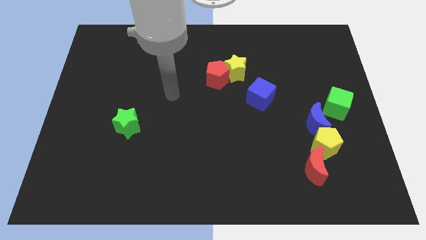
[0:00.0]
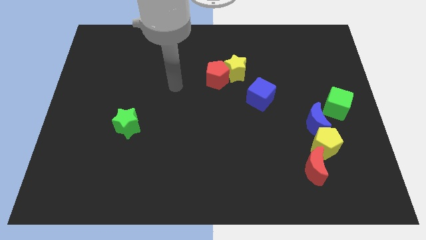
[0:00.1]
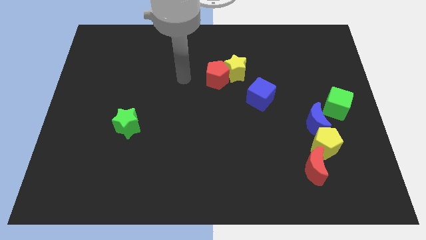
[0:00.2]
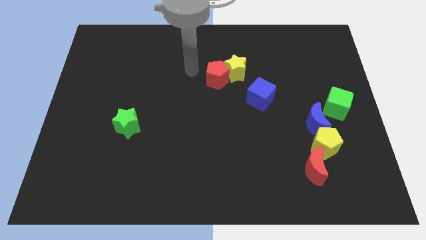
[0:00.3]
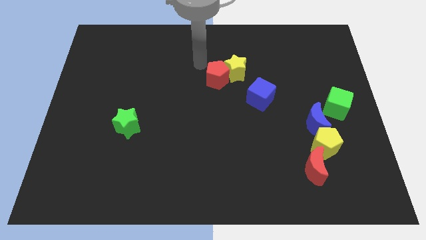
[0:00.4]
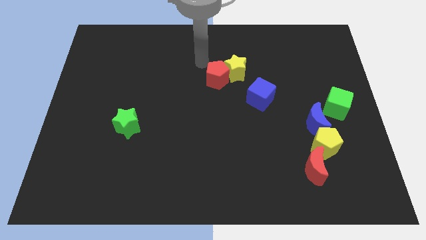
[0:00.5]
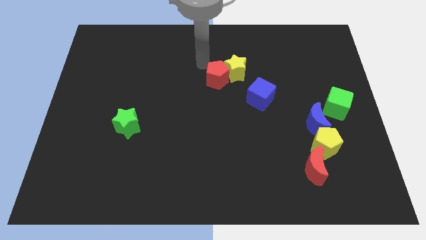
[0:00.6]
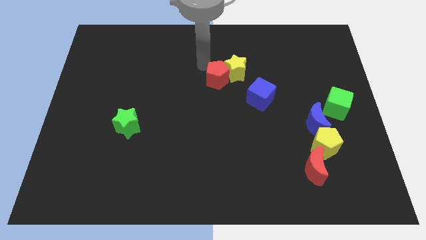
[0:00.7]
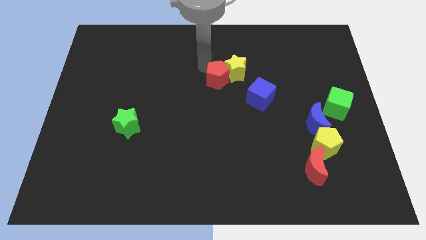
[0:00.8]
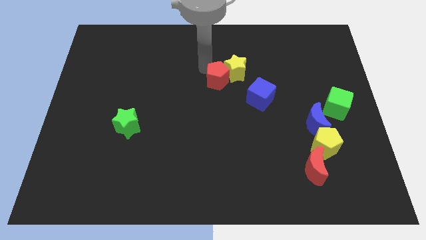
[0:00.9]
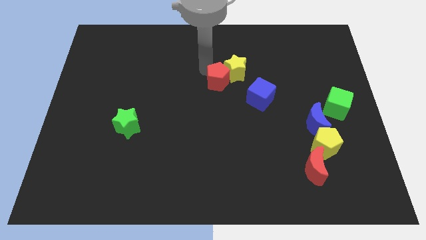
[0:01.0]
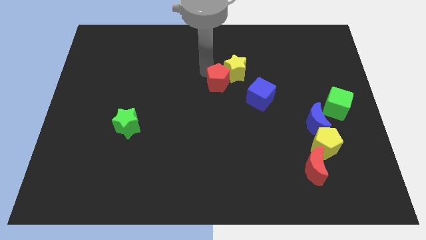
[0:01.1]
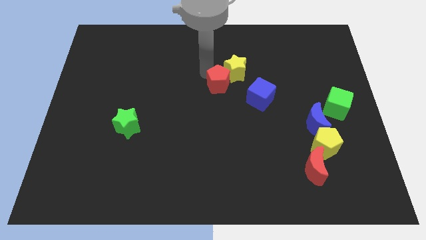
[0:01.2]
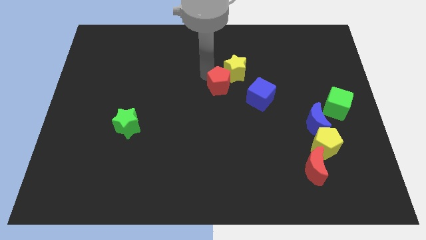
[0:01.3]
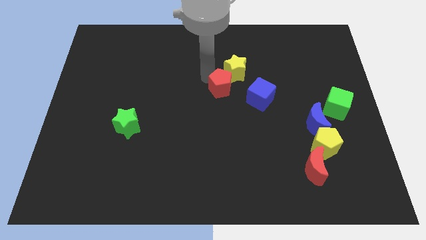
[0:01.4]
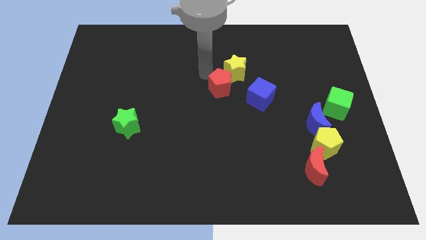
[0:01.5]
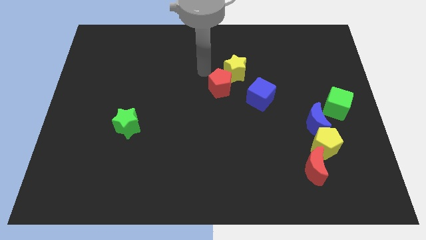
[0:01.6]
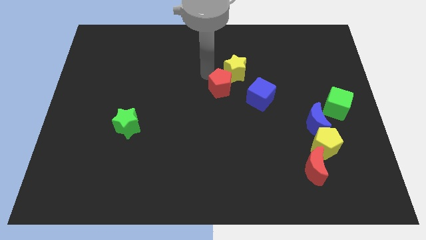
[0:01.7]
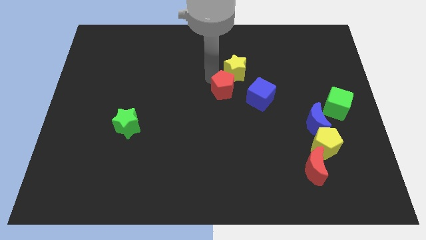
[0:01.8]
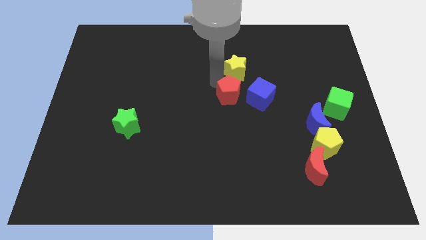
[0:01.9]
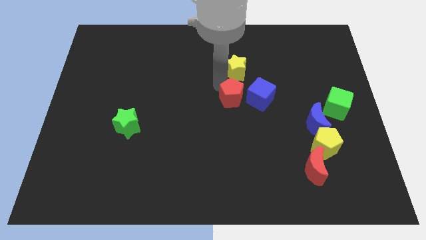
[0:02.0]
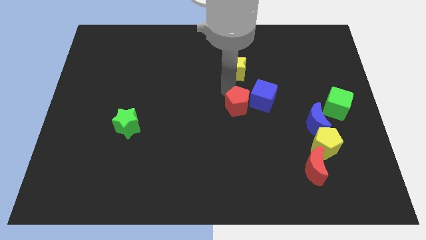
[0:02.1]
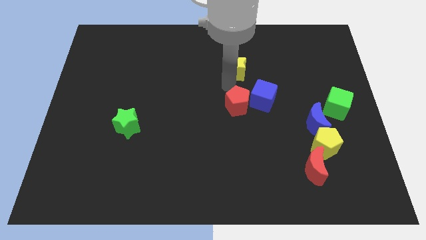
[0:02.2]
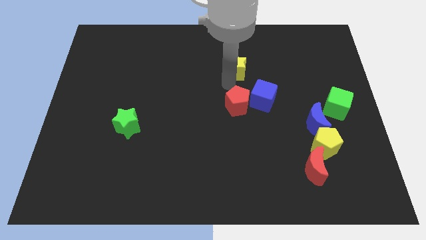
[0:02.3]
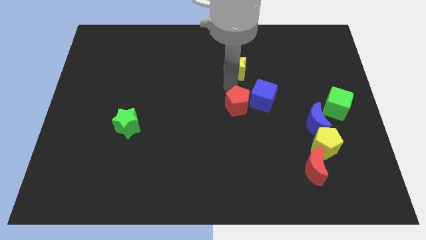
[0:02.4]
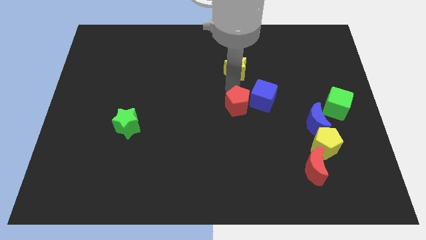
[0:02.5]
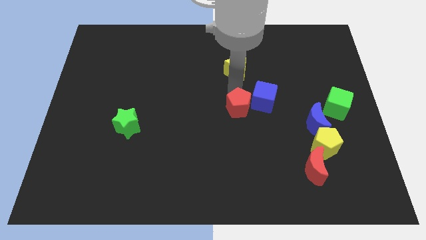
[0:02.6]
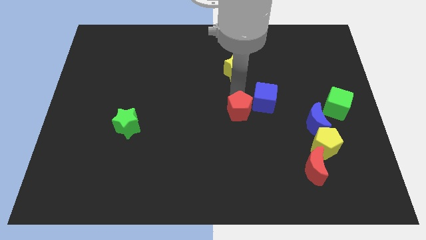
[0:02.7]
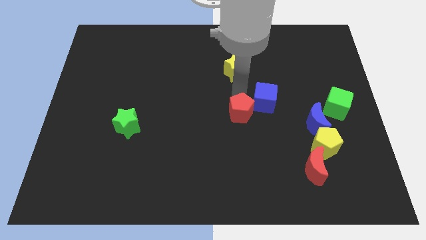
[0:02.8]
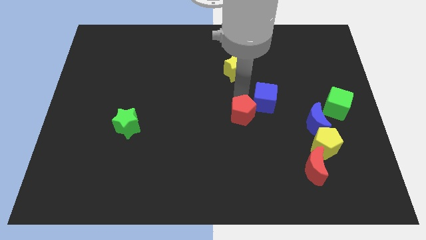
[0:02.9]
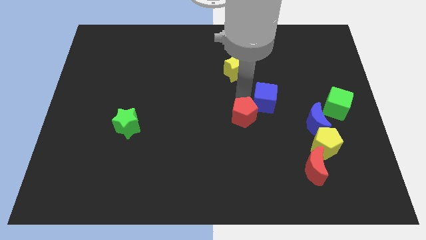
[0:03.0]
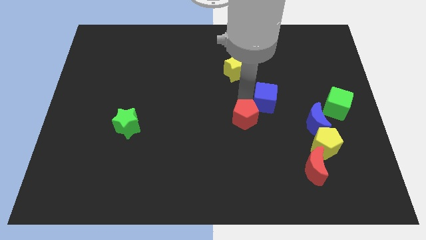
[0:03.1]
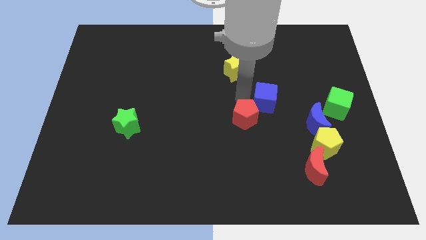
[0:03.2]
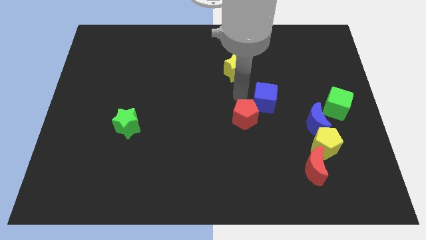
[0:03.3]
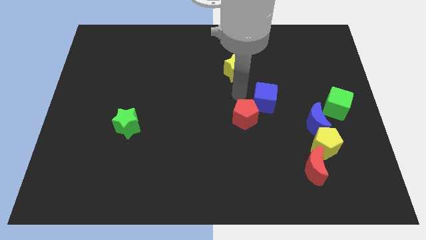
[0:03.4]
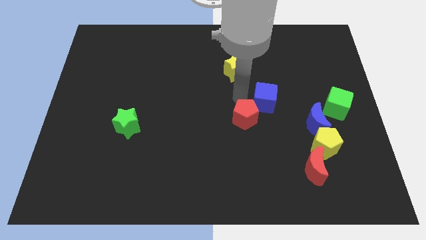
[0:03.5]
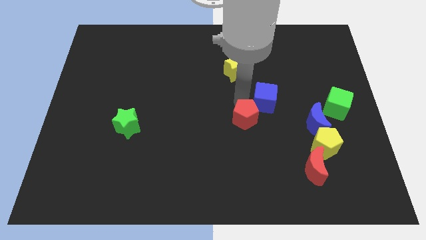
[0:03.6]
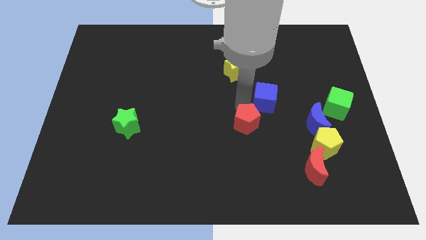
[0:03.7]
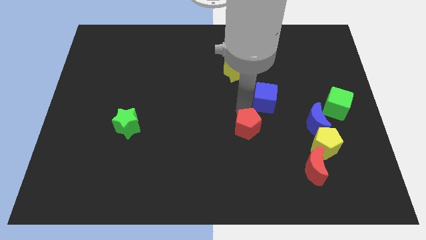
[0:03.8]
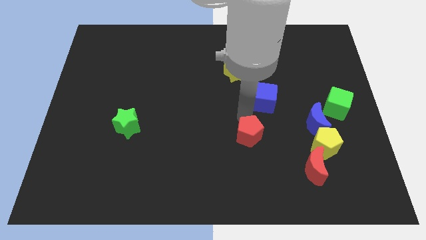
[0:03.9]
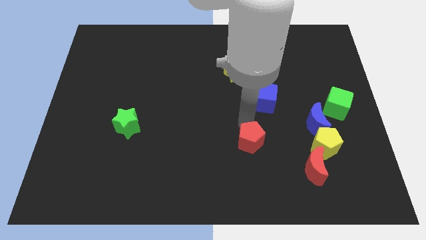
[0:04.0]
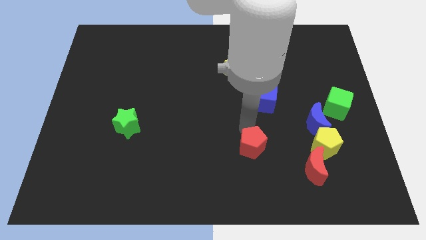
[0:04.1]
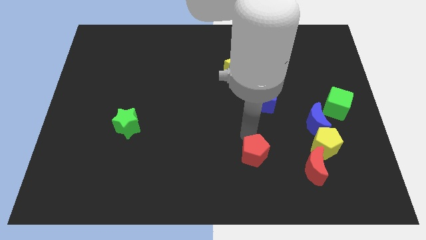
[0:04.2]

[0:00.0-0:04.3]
move the red pentagon to the left of the red moon

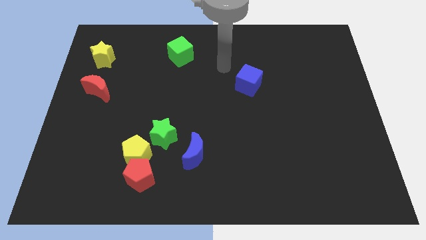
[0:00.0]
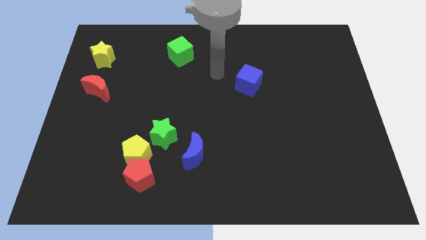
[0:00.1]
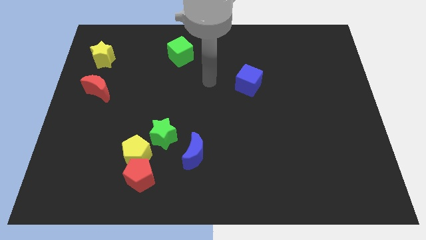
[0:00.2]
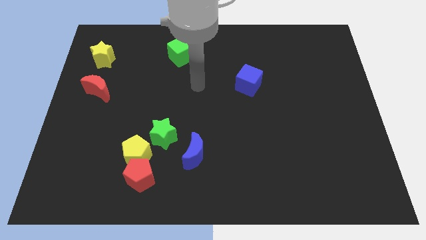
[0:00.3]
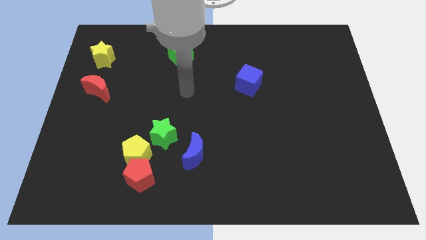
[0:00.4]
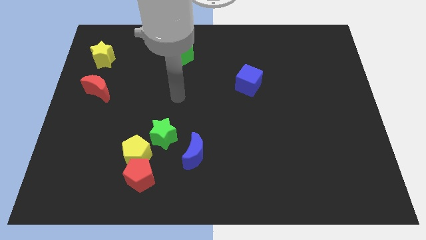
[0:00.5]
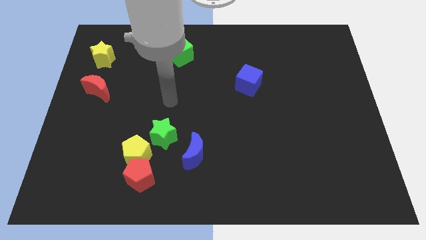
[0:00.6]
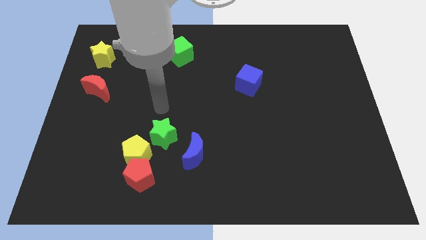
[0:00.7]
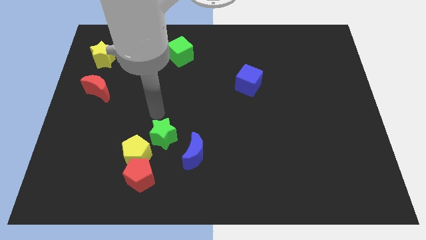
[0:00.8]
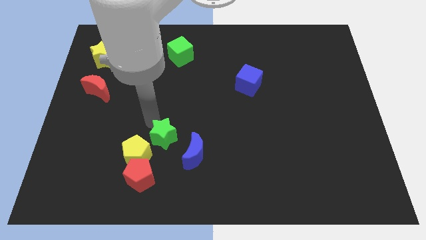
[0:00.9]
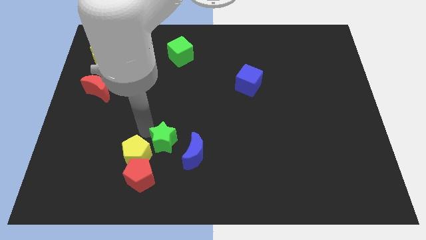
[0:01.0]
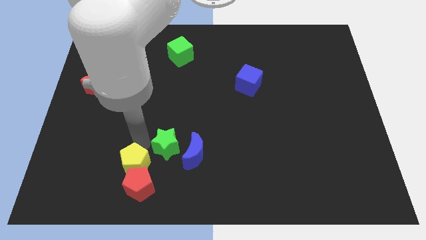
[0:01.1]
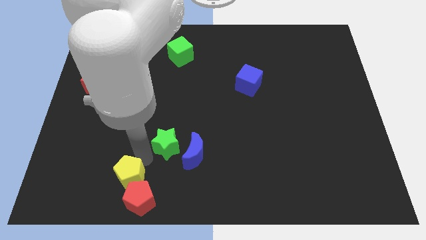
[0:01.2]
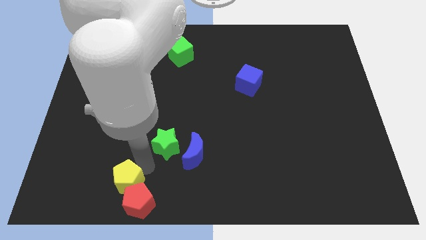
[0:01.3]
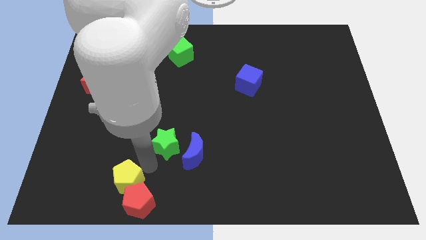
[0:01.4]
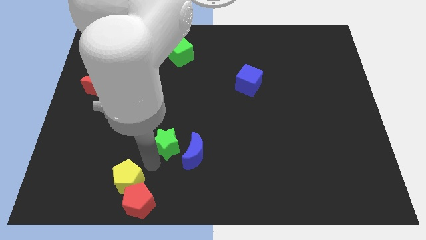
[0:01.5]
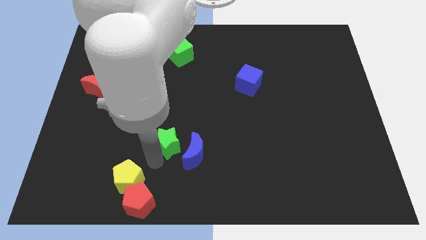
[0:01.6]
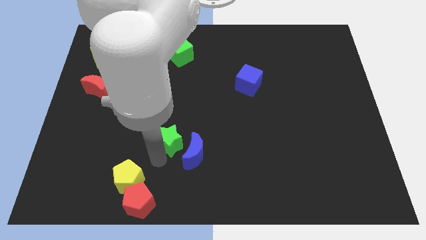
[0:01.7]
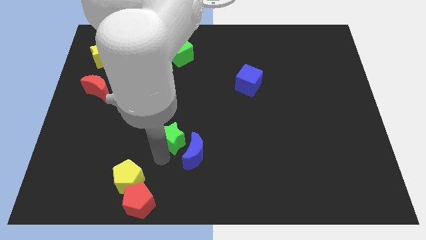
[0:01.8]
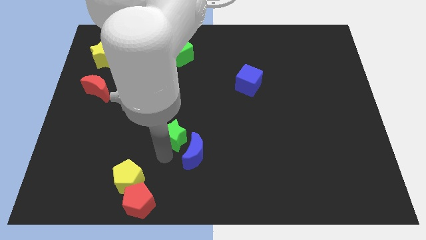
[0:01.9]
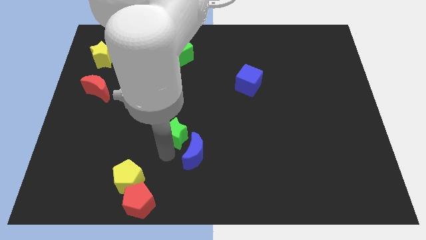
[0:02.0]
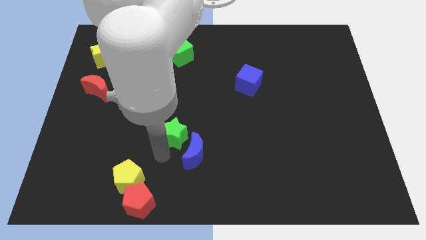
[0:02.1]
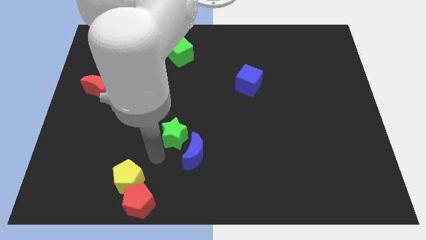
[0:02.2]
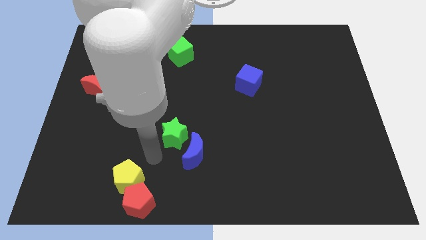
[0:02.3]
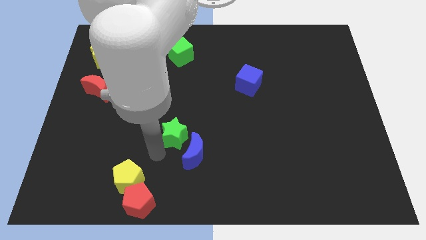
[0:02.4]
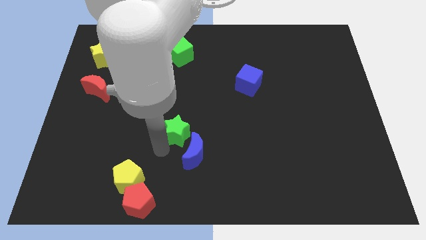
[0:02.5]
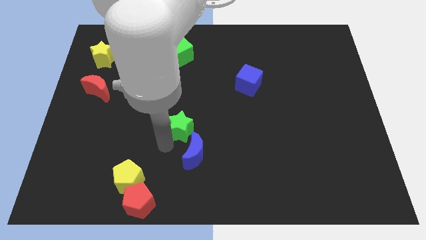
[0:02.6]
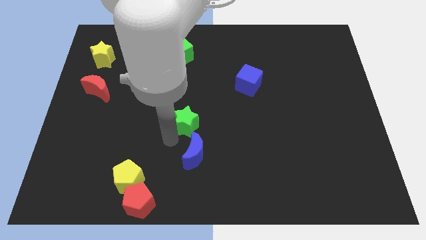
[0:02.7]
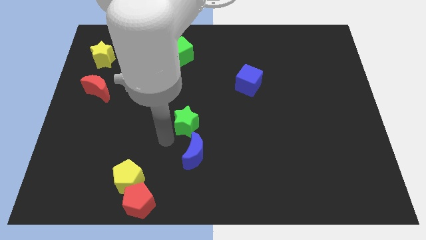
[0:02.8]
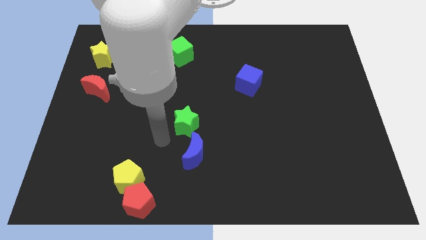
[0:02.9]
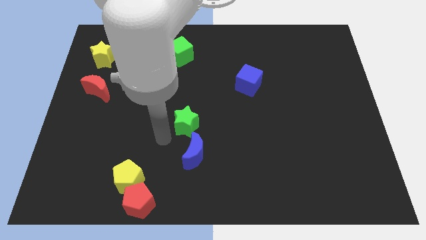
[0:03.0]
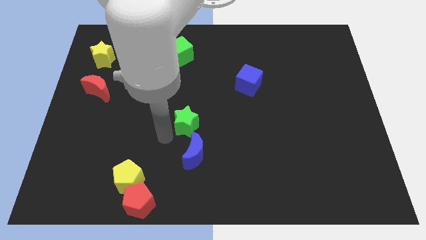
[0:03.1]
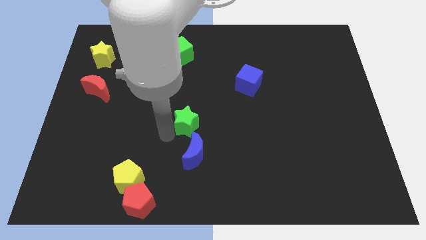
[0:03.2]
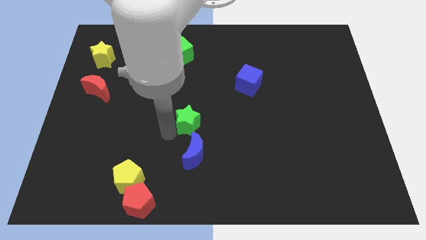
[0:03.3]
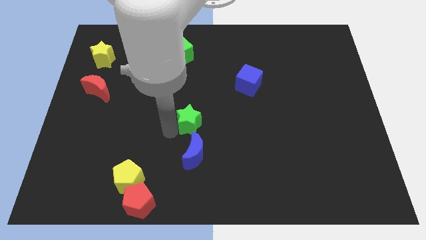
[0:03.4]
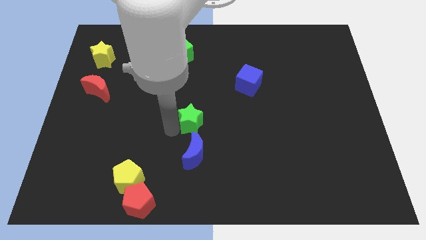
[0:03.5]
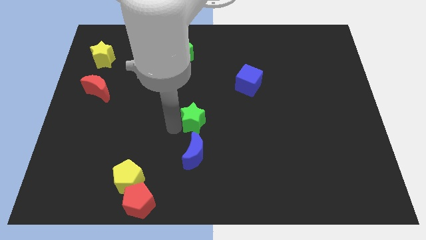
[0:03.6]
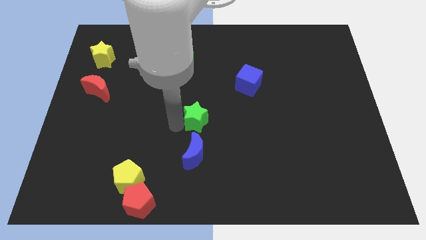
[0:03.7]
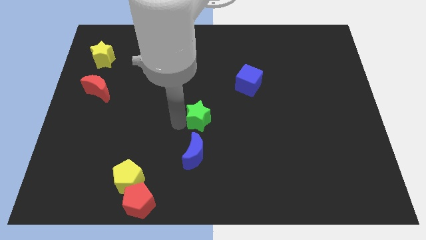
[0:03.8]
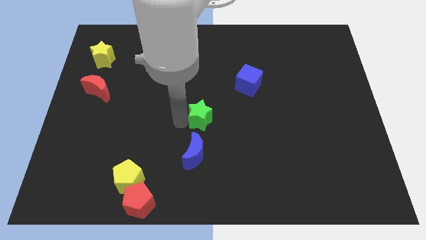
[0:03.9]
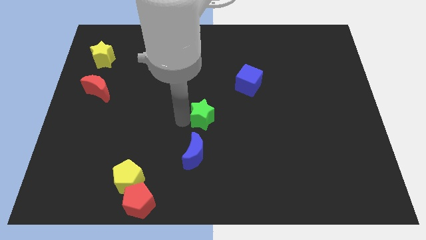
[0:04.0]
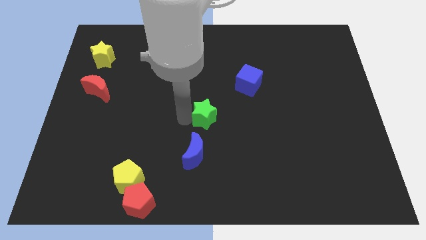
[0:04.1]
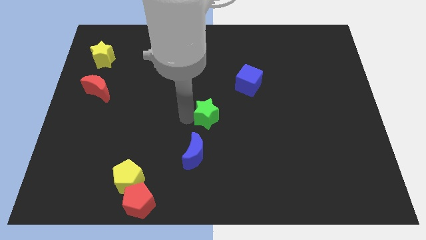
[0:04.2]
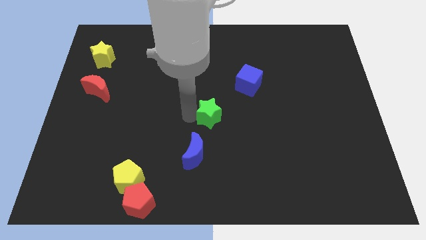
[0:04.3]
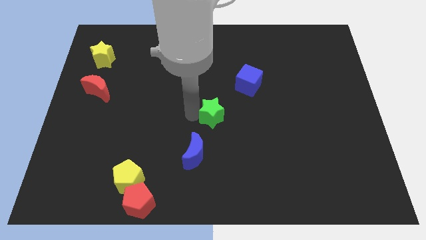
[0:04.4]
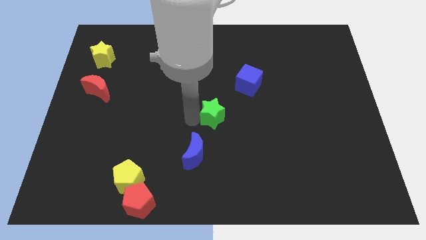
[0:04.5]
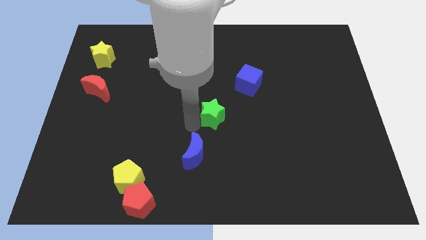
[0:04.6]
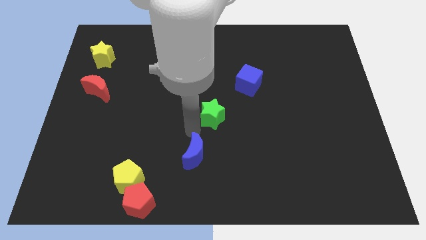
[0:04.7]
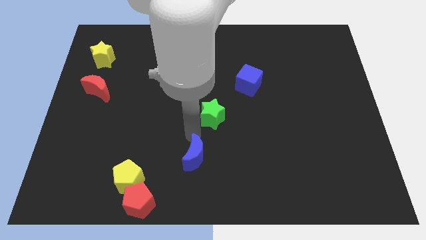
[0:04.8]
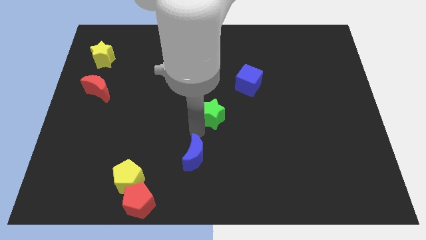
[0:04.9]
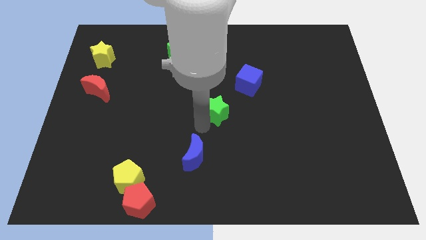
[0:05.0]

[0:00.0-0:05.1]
put the green star to the bottom left side of the blue cube
